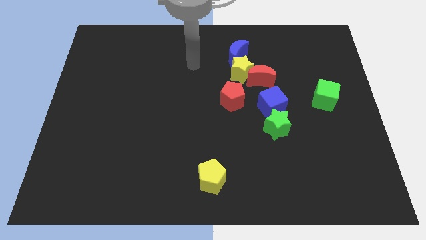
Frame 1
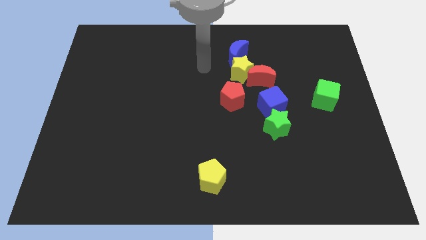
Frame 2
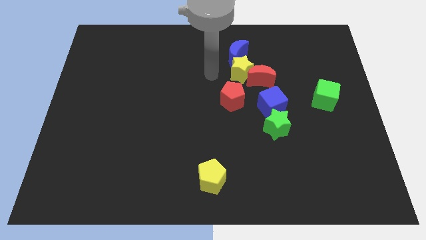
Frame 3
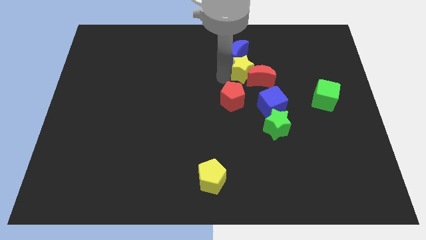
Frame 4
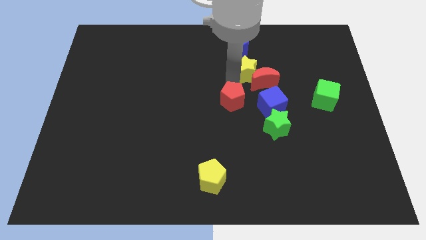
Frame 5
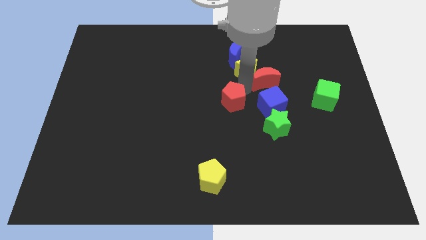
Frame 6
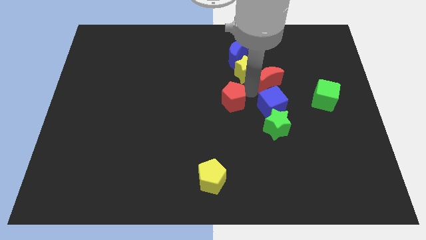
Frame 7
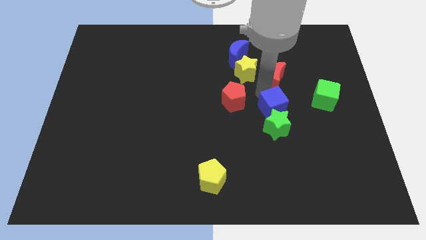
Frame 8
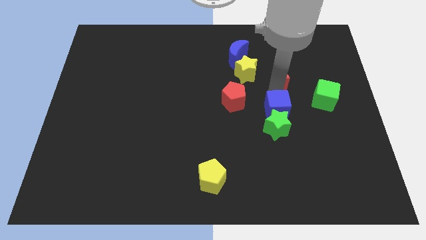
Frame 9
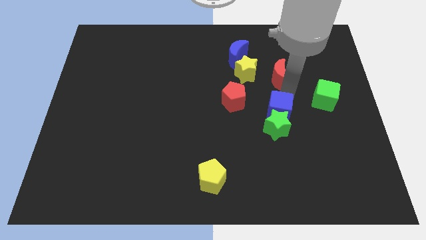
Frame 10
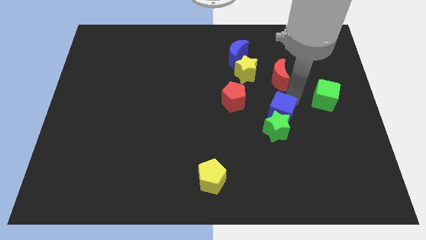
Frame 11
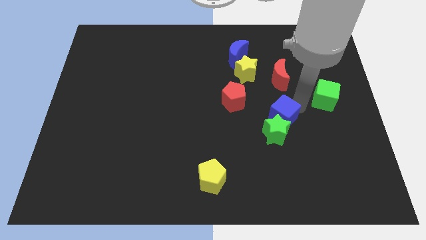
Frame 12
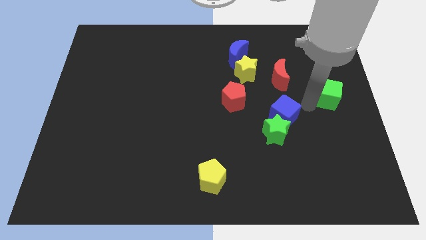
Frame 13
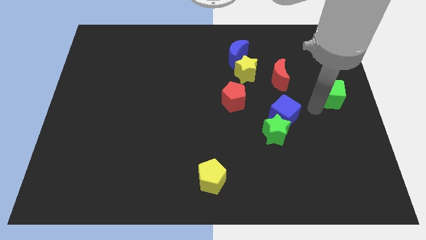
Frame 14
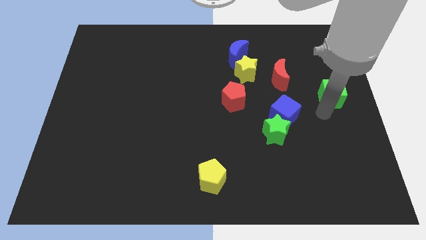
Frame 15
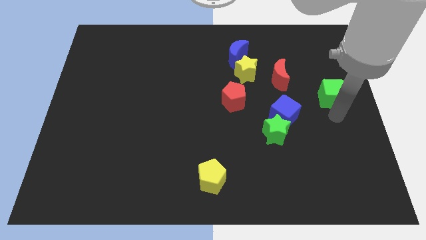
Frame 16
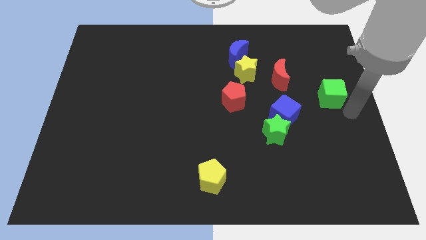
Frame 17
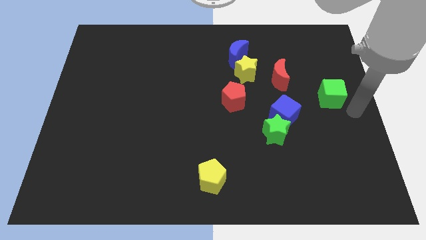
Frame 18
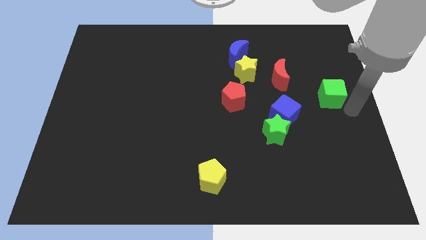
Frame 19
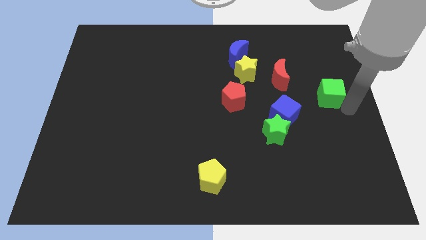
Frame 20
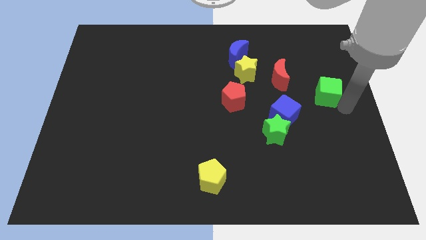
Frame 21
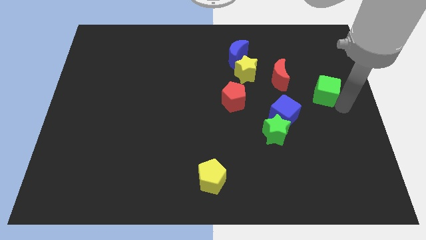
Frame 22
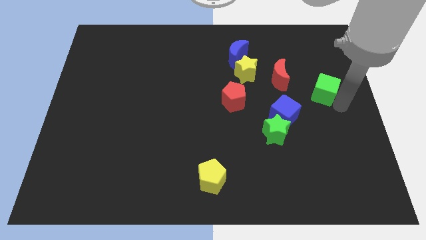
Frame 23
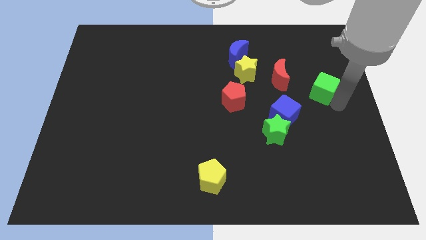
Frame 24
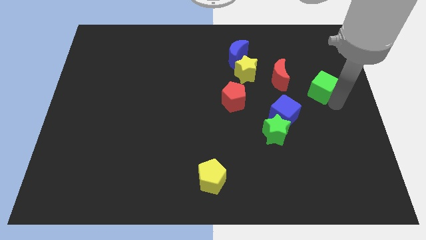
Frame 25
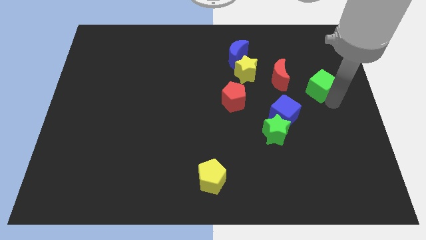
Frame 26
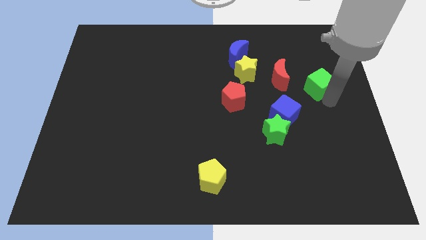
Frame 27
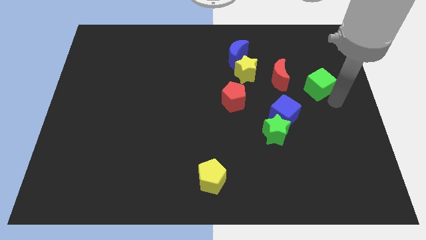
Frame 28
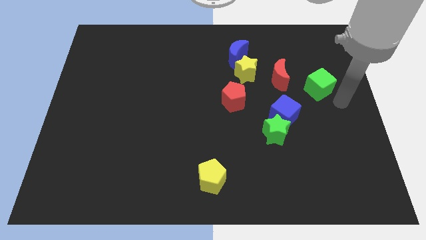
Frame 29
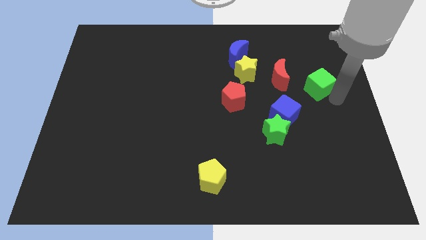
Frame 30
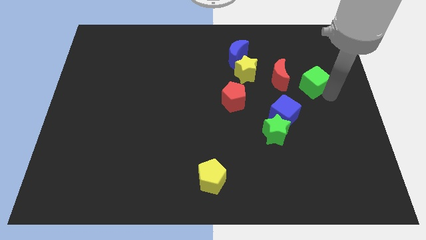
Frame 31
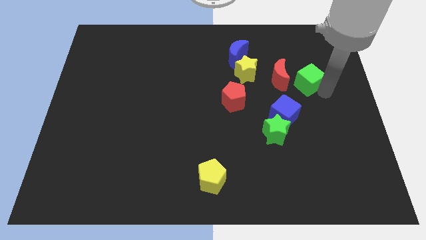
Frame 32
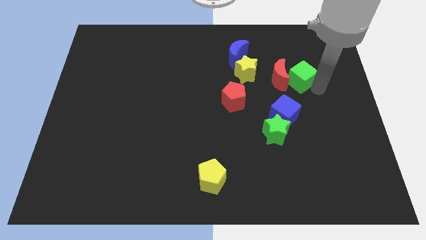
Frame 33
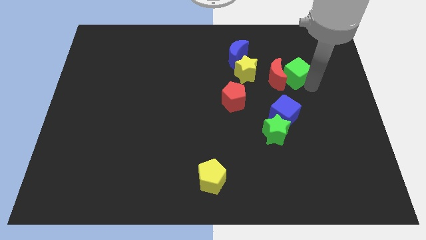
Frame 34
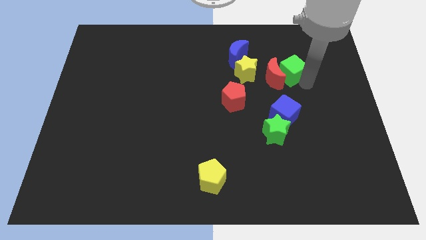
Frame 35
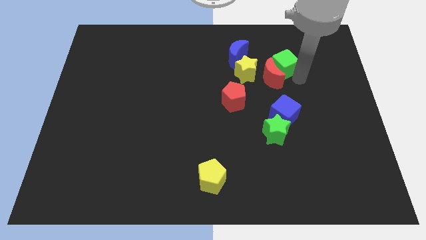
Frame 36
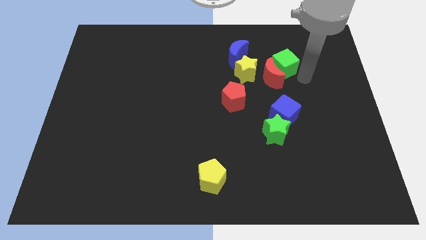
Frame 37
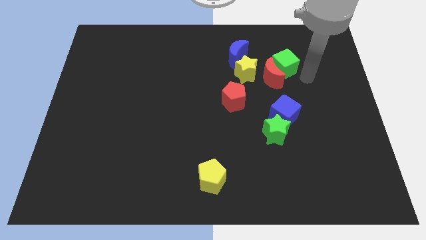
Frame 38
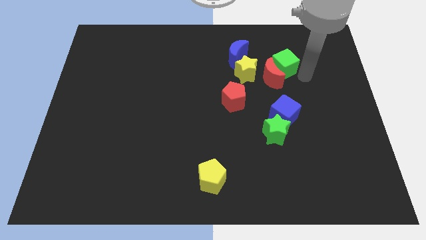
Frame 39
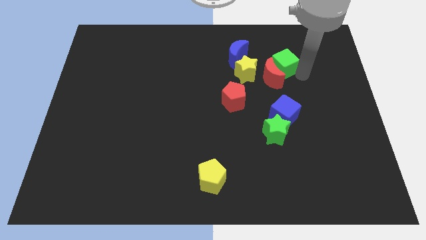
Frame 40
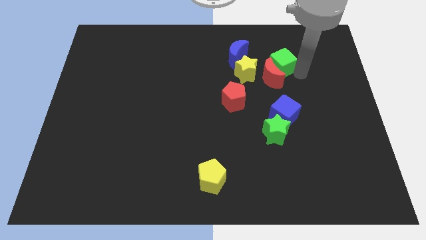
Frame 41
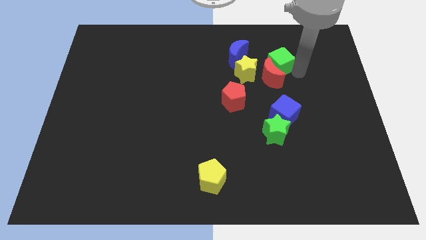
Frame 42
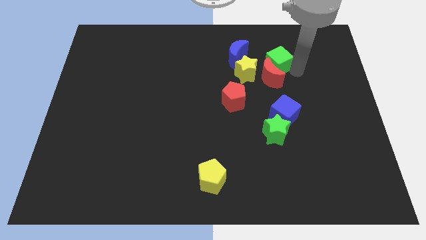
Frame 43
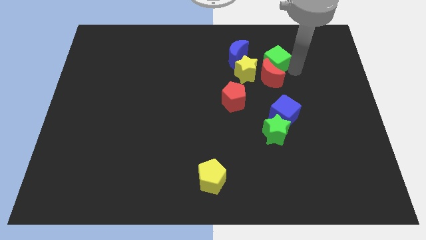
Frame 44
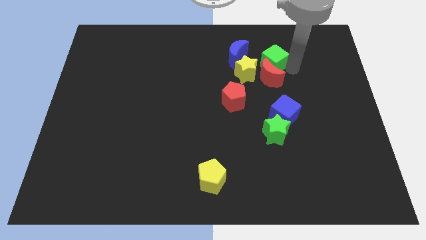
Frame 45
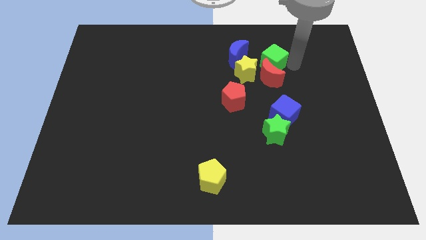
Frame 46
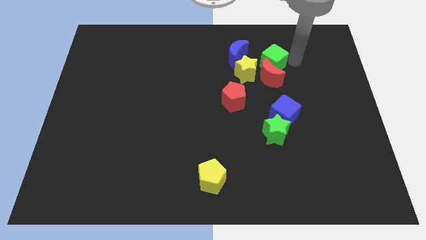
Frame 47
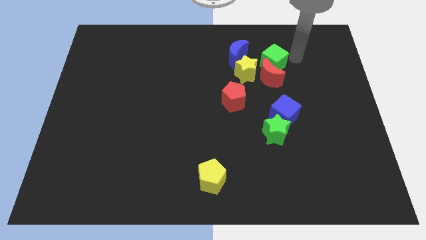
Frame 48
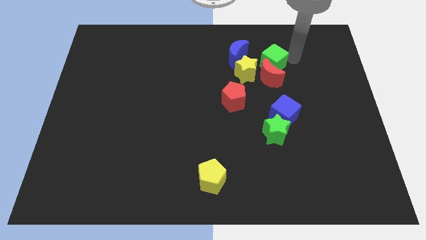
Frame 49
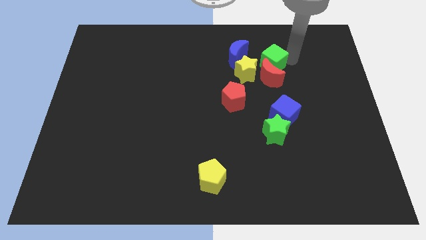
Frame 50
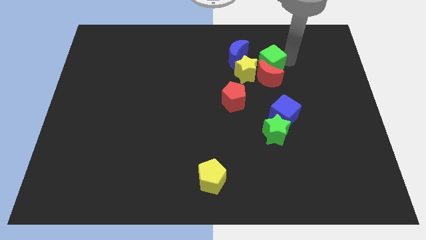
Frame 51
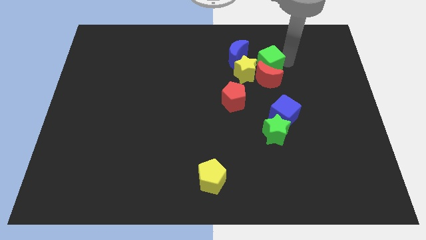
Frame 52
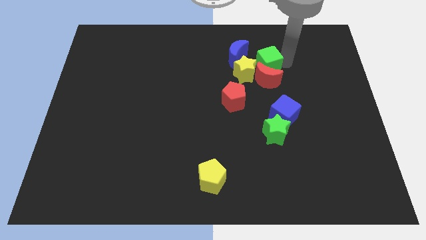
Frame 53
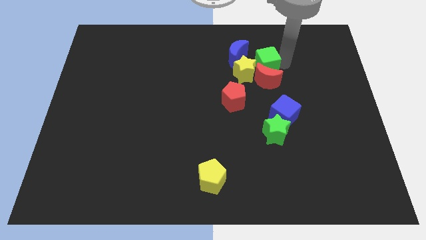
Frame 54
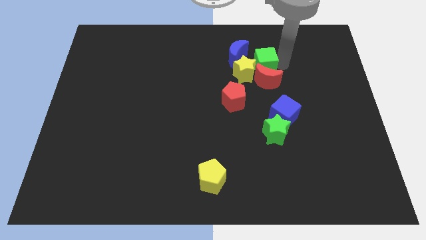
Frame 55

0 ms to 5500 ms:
slide the green cube towards the yellow star

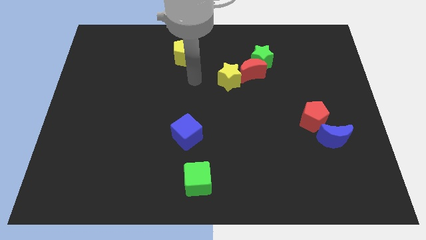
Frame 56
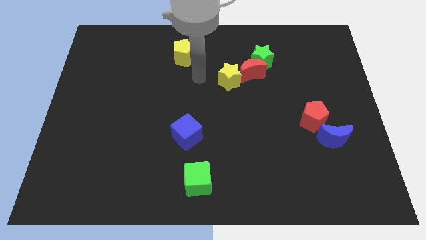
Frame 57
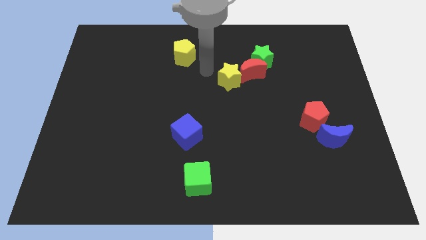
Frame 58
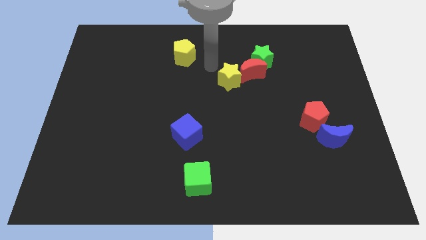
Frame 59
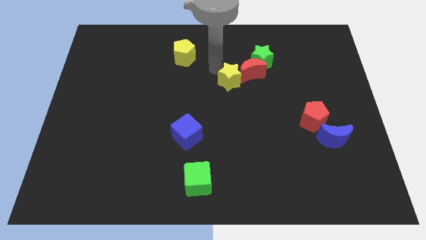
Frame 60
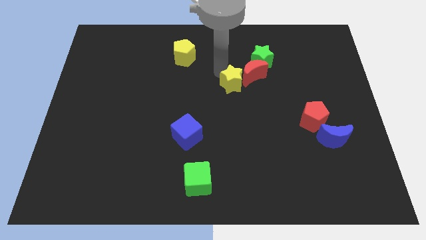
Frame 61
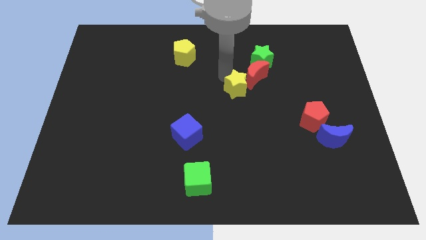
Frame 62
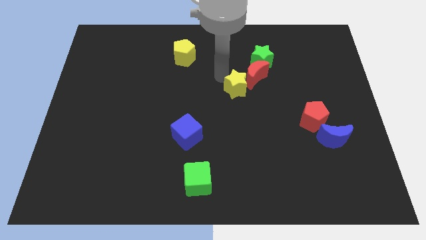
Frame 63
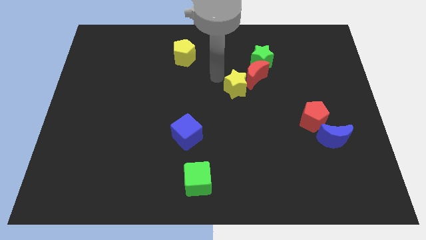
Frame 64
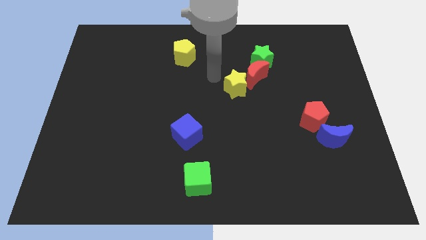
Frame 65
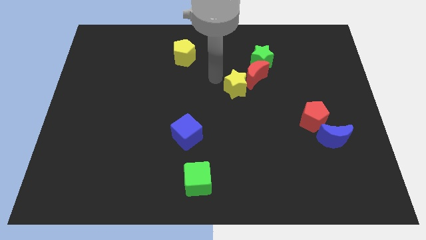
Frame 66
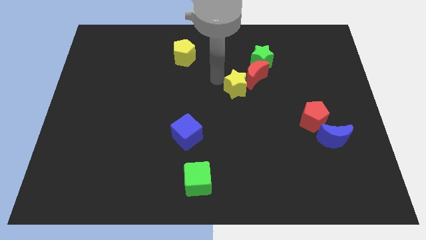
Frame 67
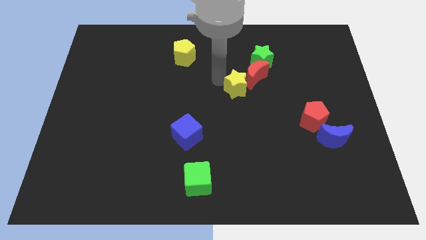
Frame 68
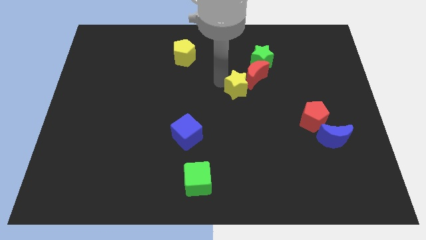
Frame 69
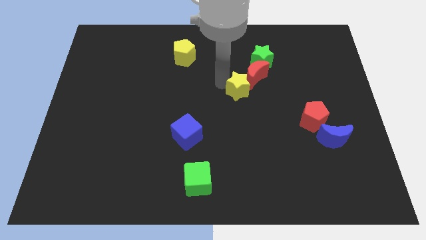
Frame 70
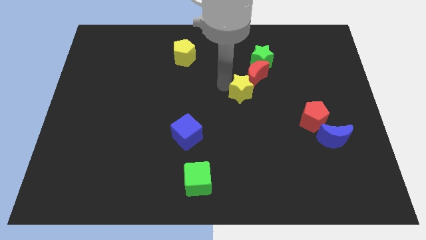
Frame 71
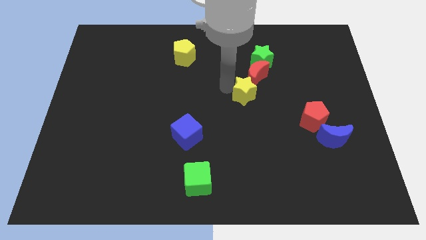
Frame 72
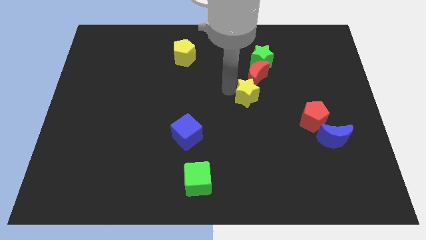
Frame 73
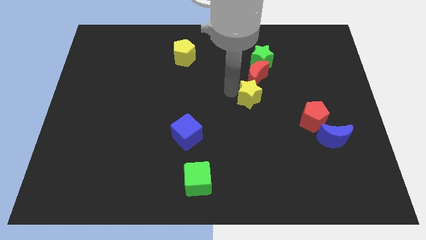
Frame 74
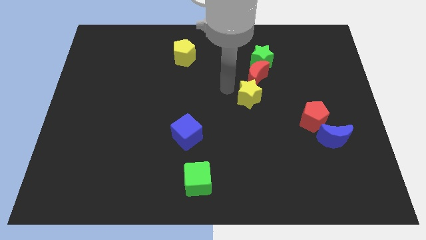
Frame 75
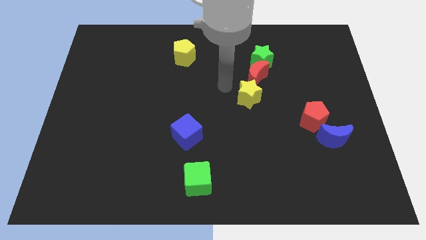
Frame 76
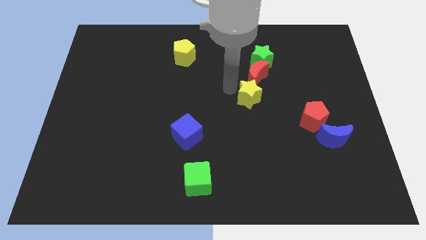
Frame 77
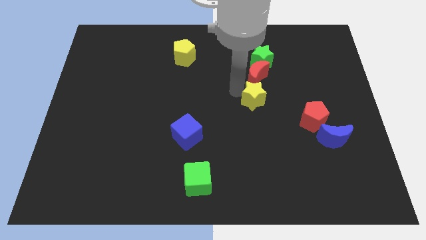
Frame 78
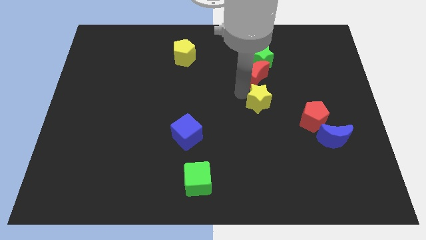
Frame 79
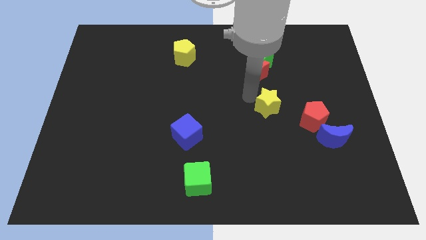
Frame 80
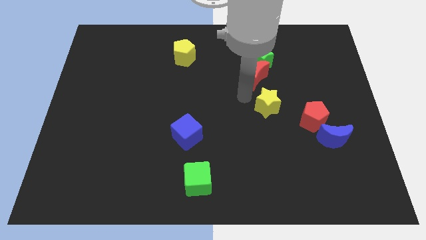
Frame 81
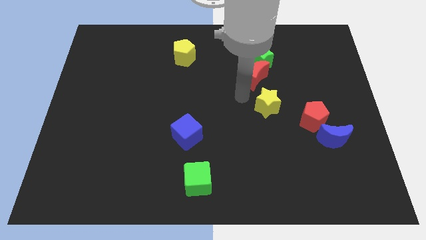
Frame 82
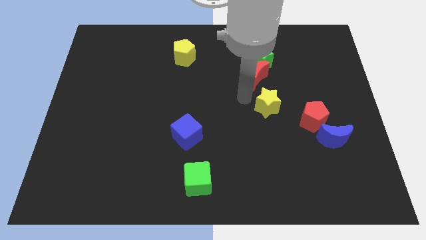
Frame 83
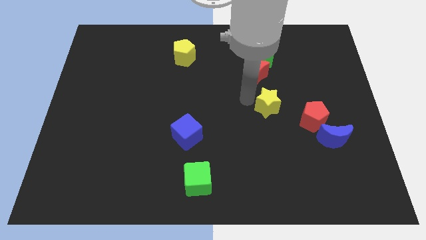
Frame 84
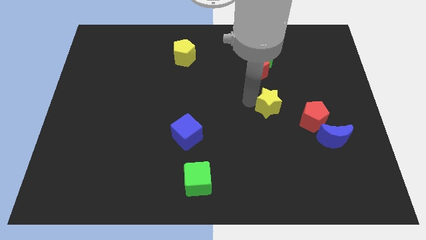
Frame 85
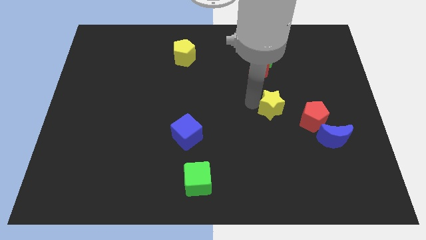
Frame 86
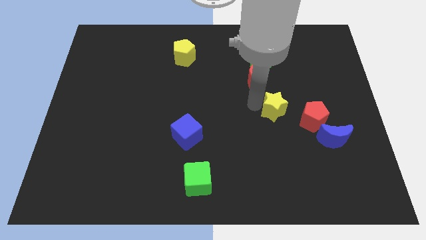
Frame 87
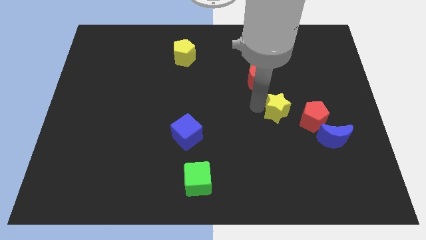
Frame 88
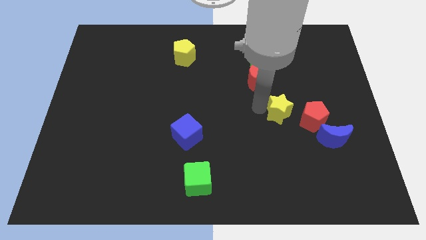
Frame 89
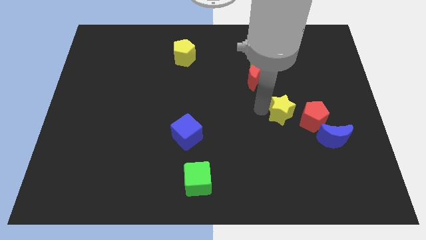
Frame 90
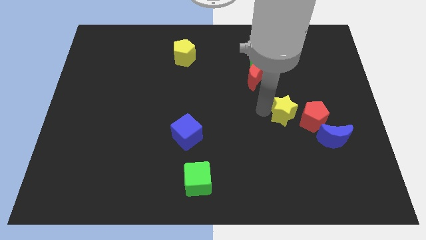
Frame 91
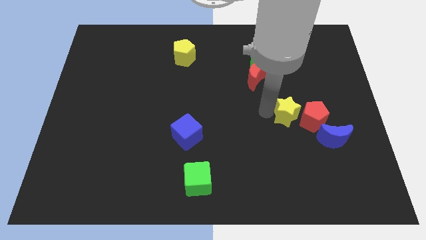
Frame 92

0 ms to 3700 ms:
put the yellow star close to the red pentagon
